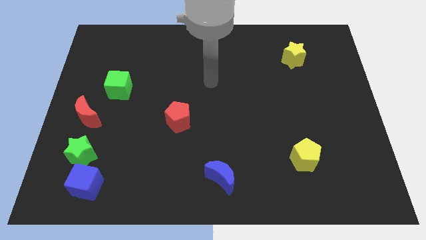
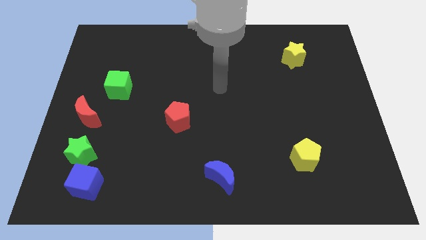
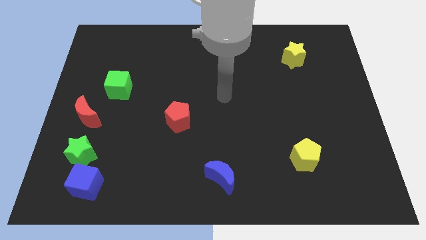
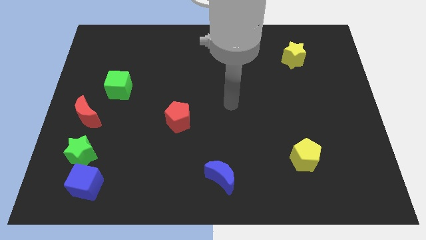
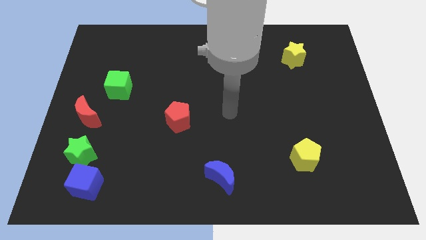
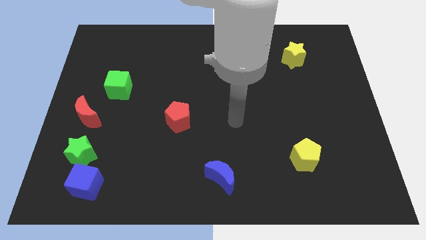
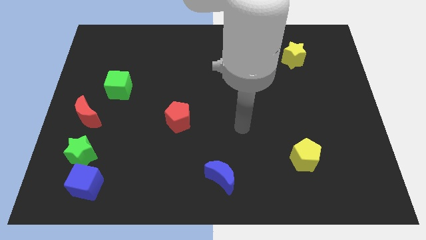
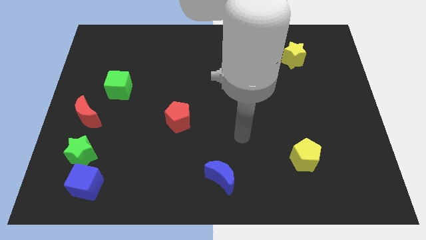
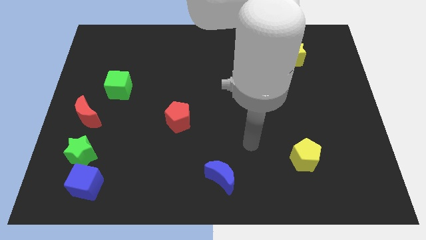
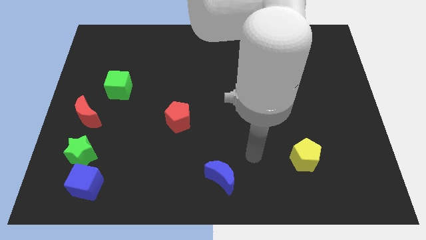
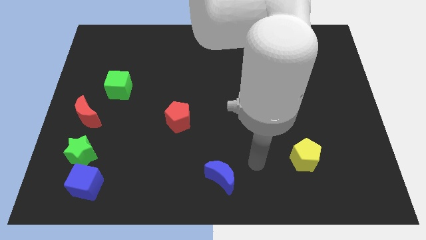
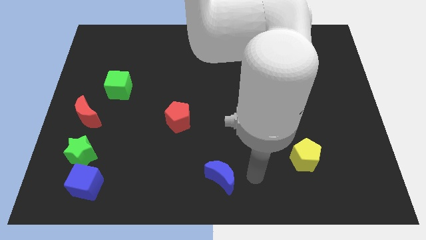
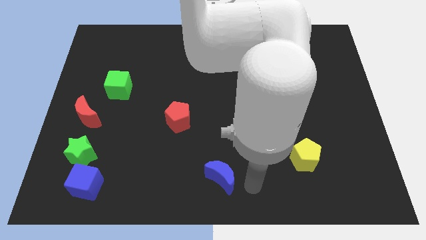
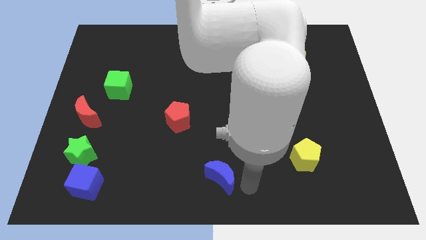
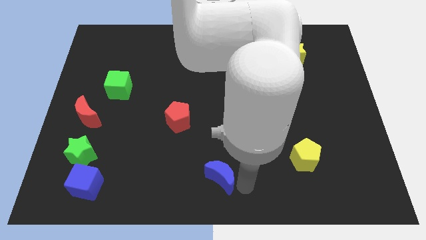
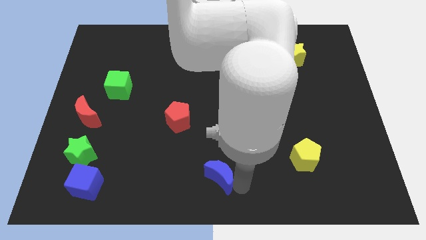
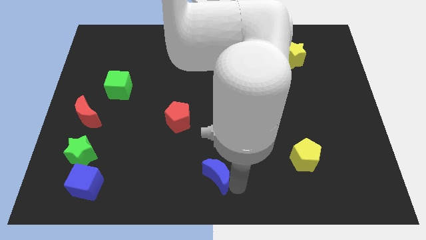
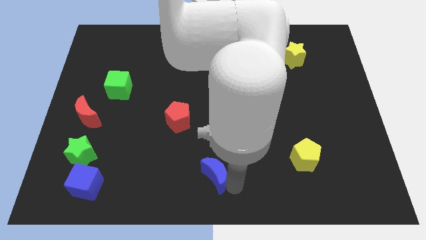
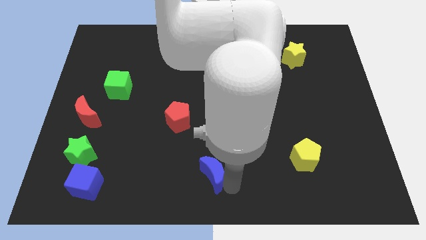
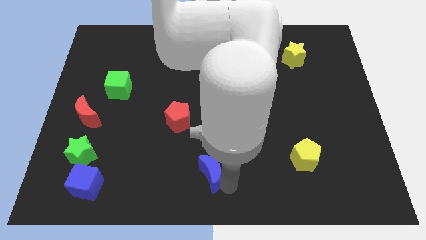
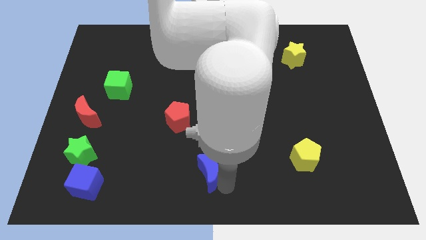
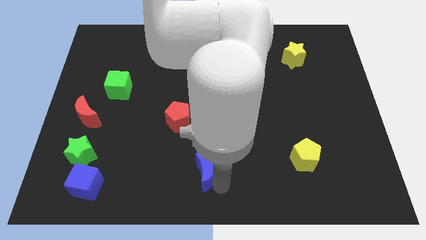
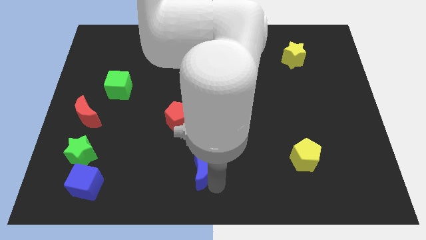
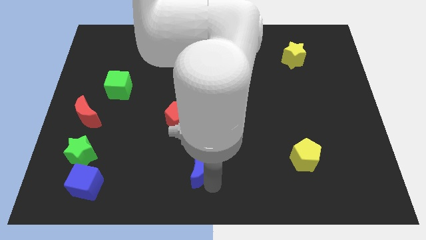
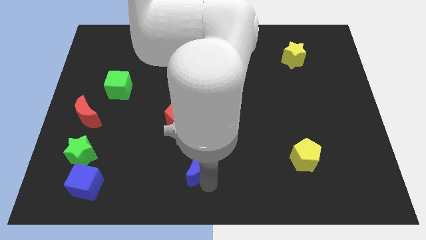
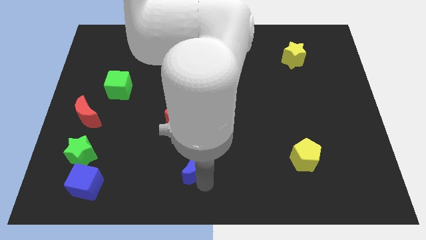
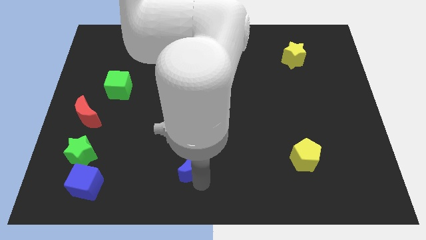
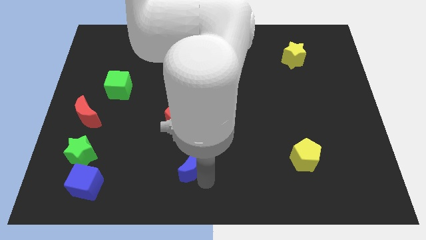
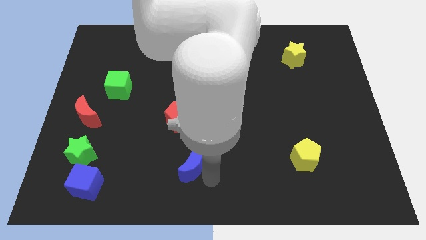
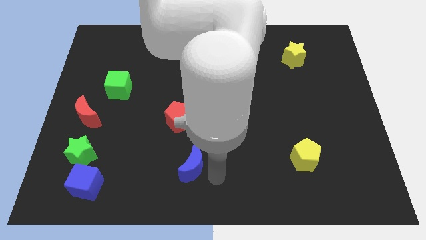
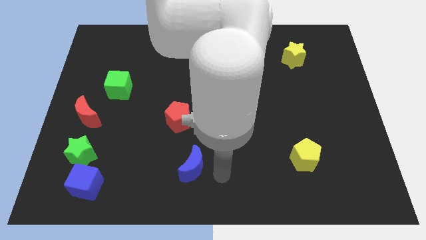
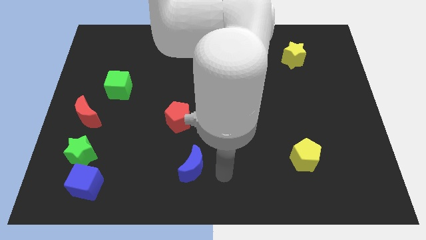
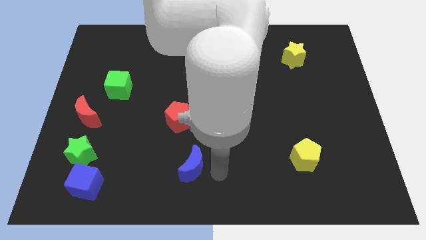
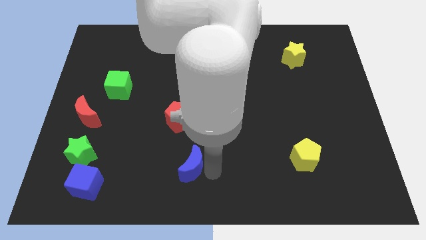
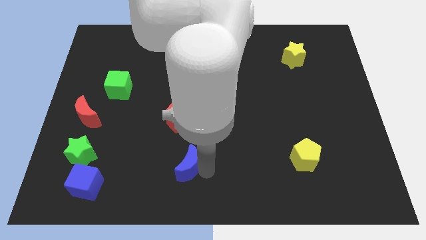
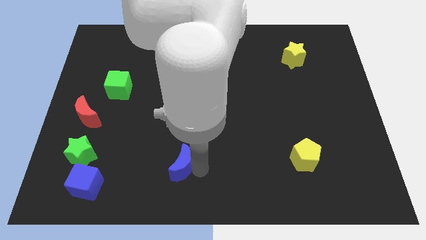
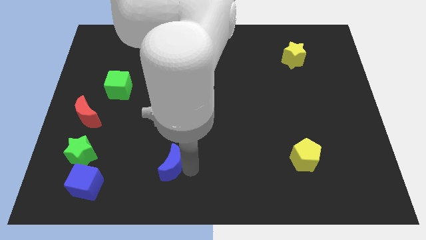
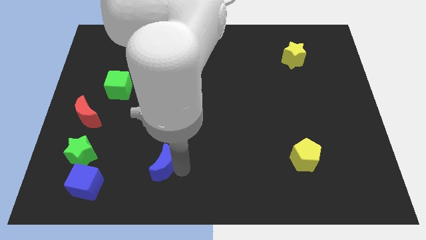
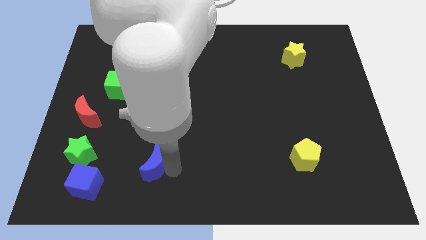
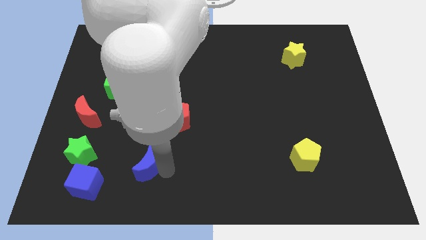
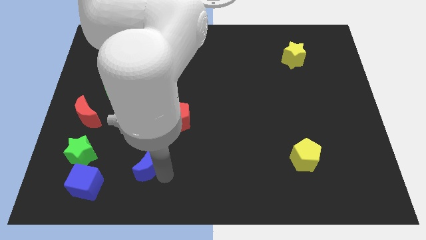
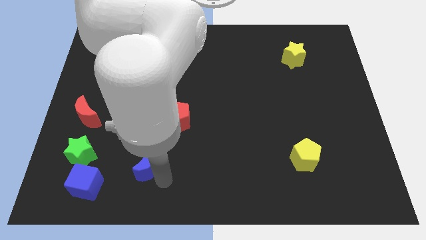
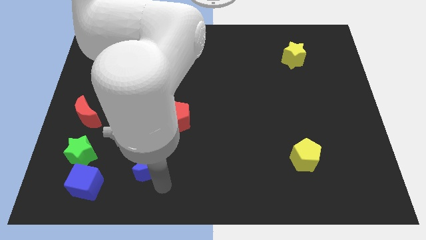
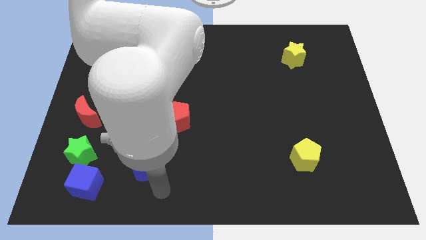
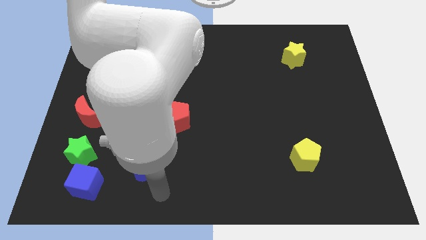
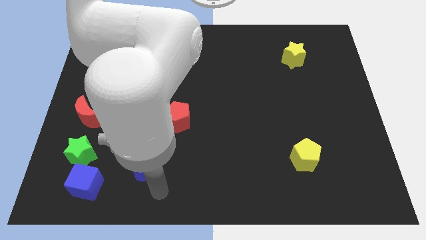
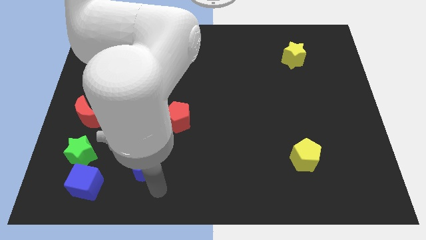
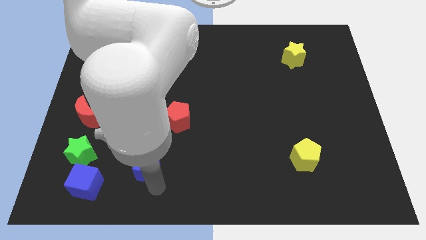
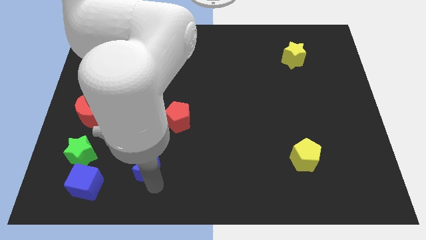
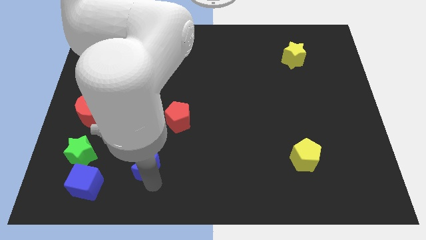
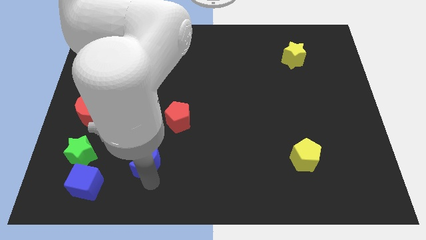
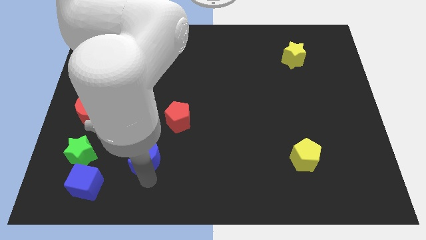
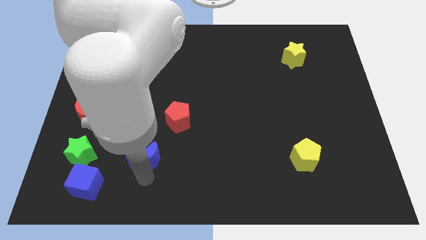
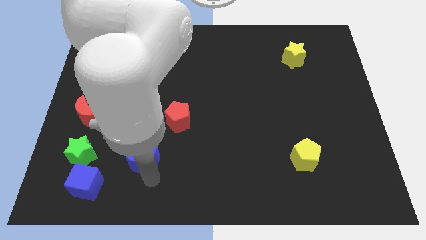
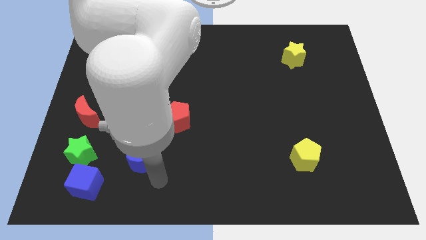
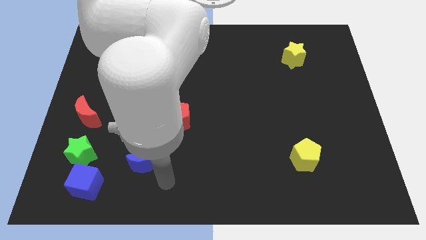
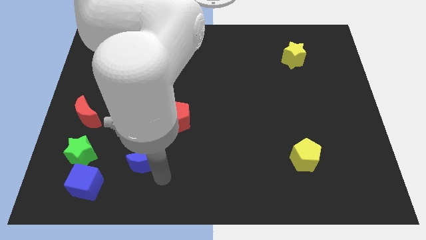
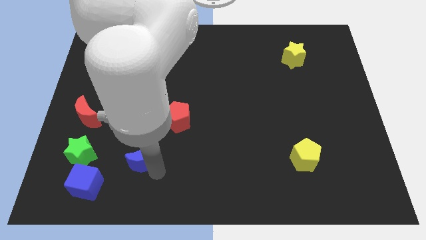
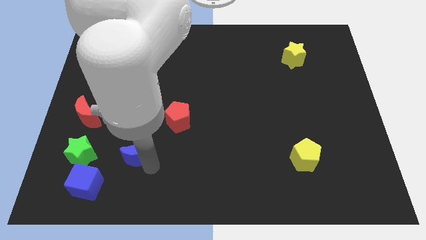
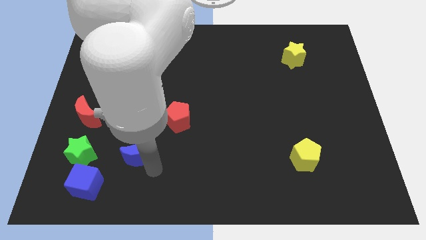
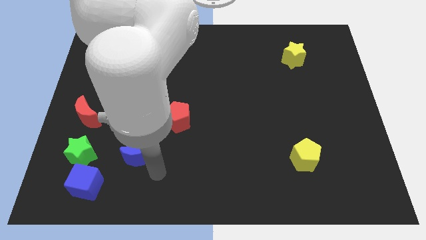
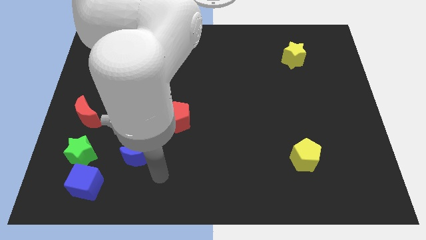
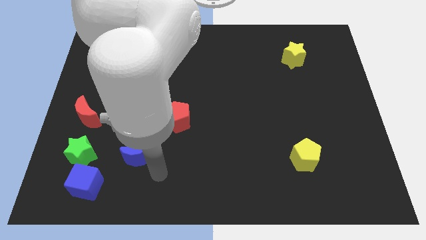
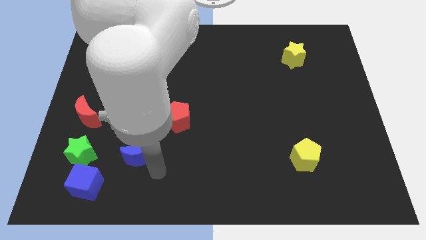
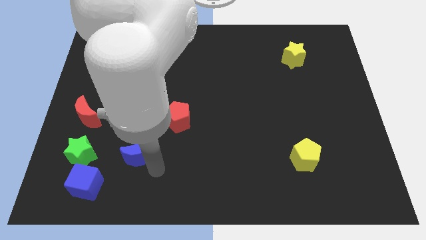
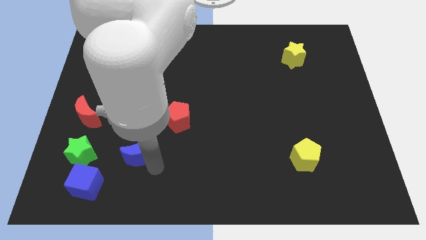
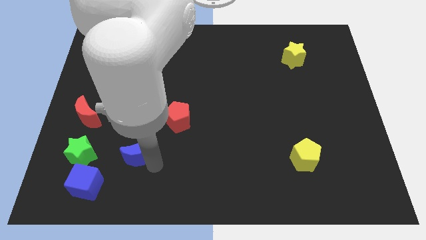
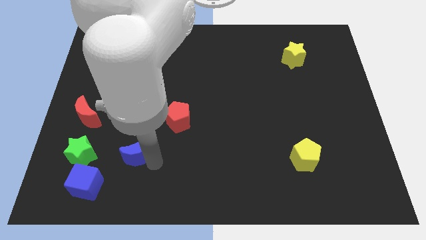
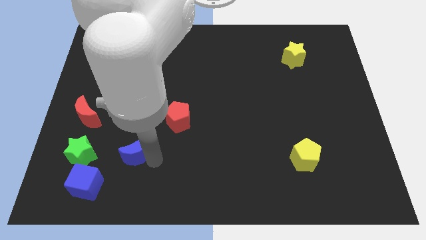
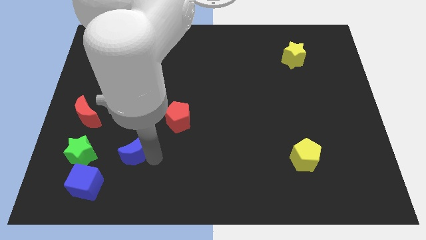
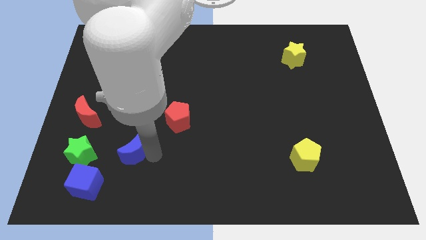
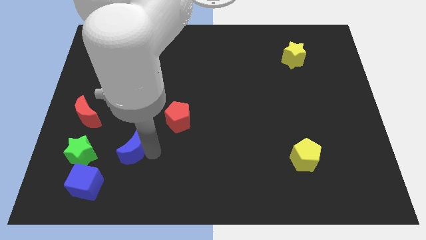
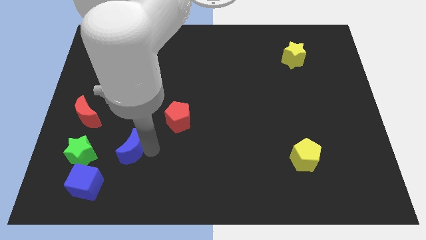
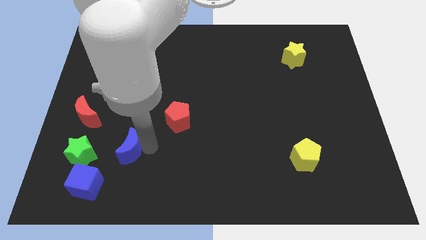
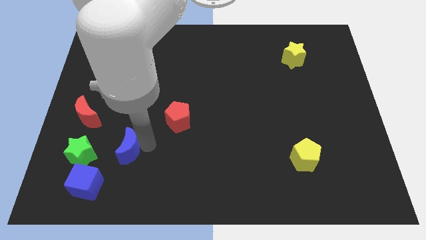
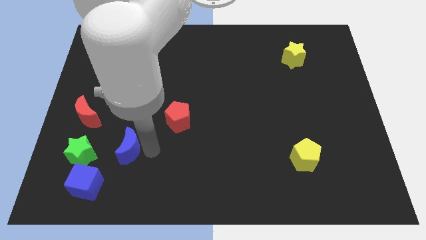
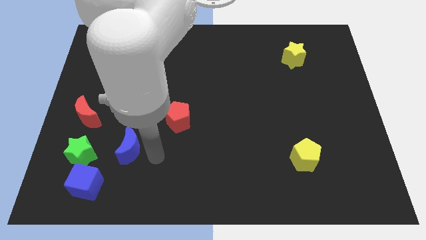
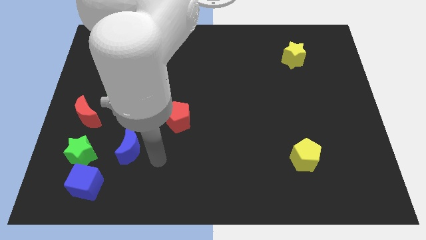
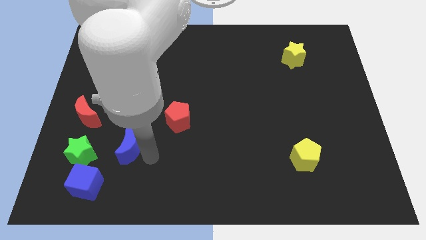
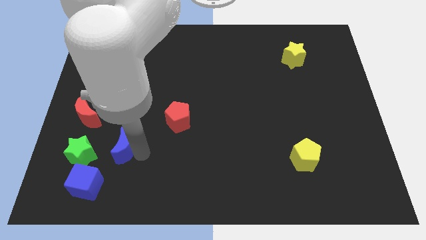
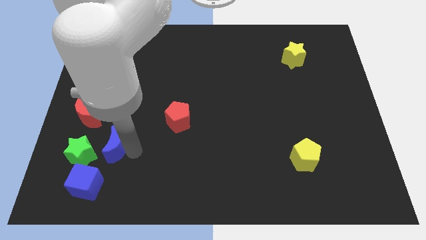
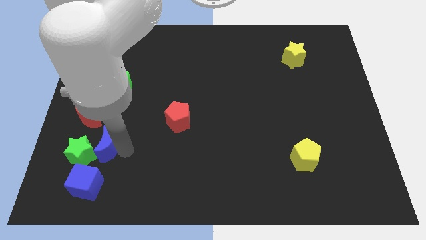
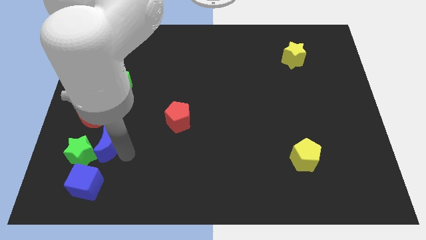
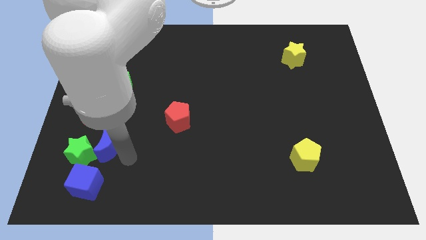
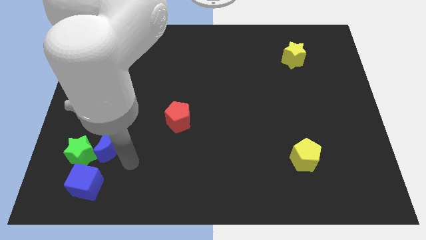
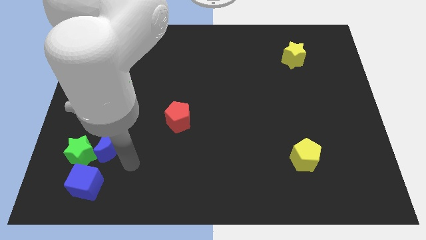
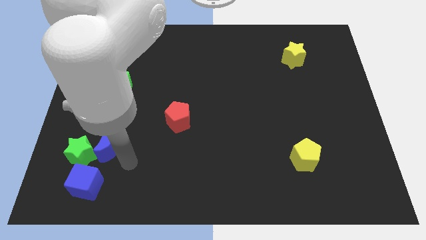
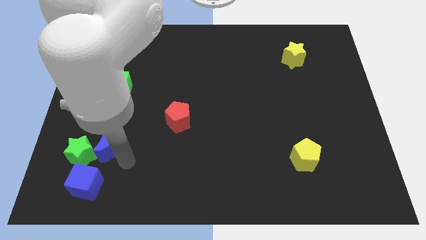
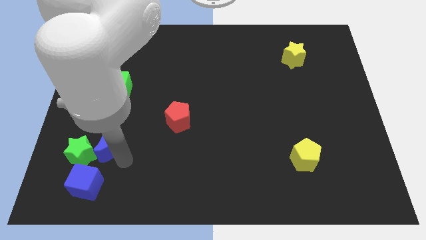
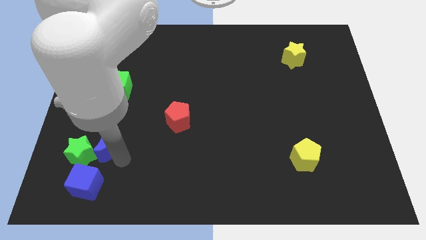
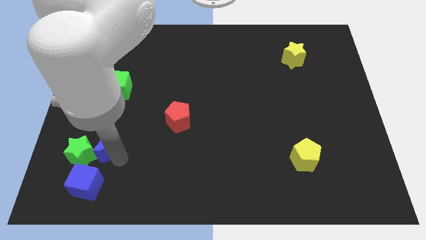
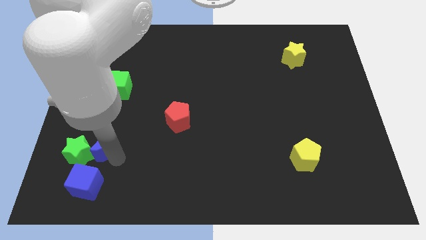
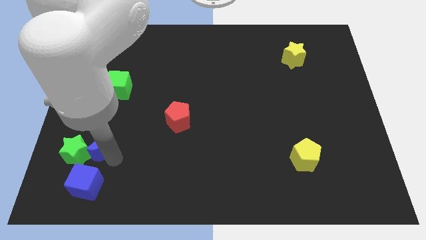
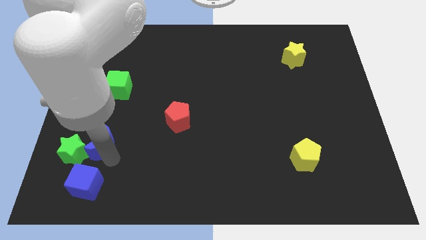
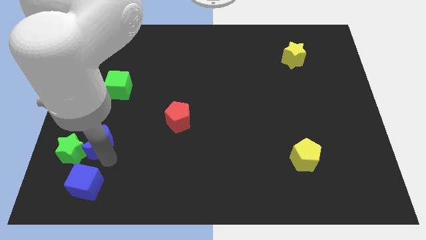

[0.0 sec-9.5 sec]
slide the blue moon to the bottom side of the red moon
